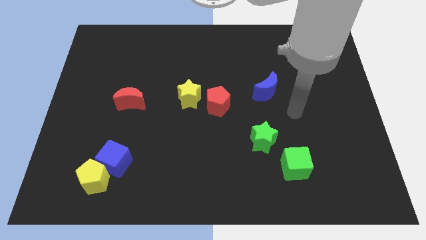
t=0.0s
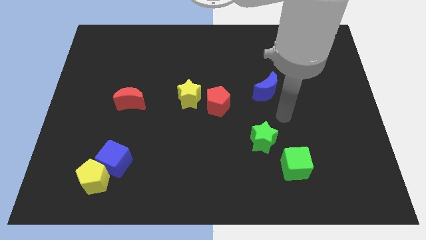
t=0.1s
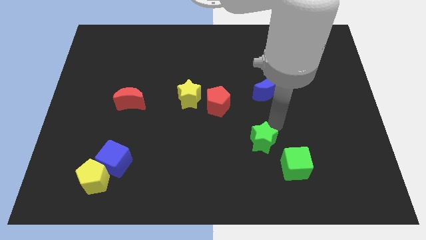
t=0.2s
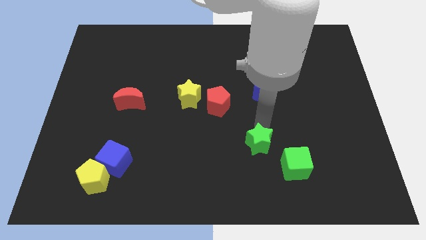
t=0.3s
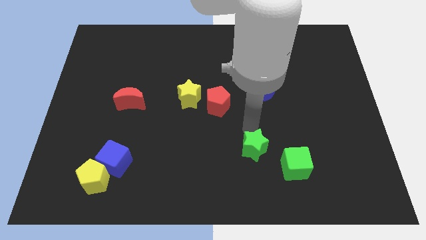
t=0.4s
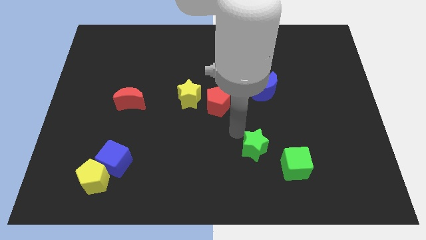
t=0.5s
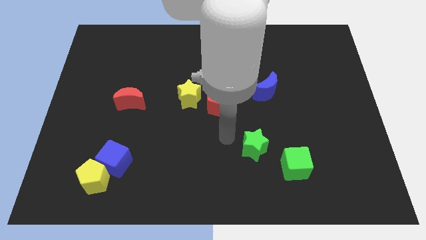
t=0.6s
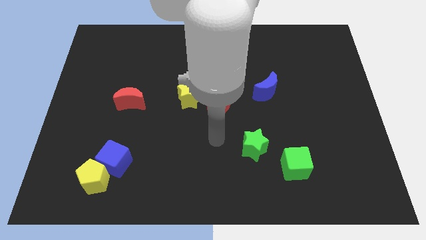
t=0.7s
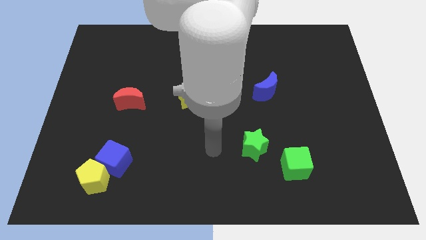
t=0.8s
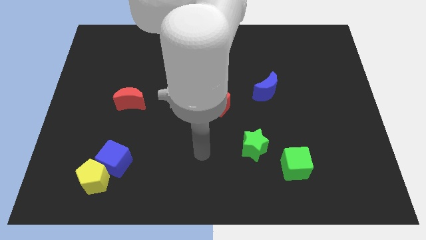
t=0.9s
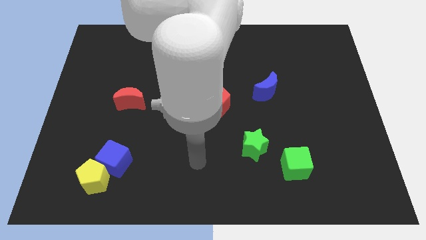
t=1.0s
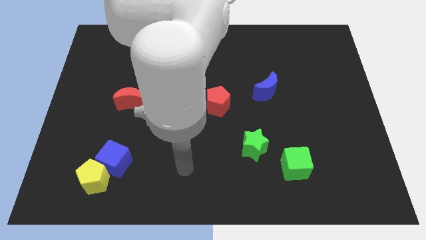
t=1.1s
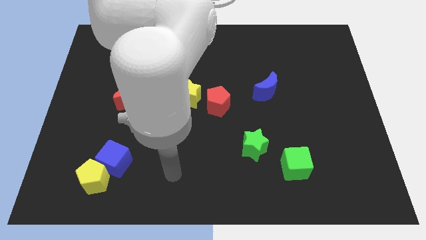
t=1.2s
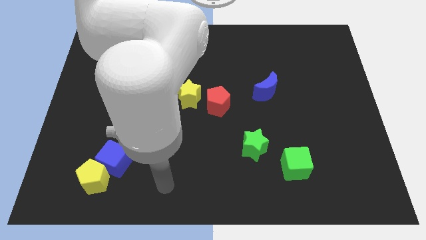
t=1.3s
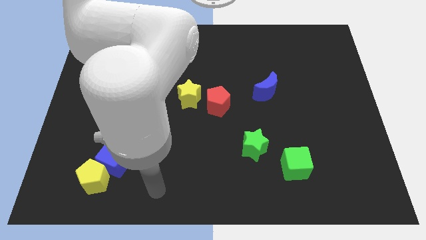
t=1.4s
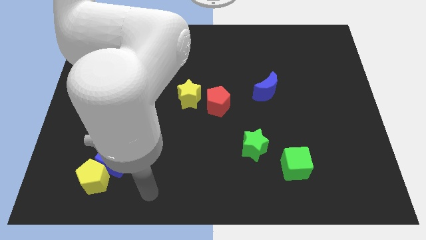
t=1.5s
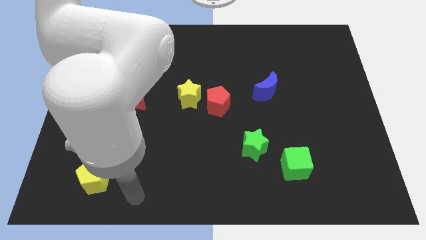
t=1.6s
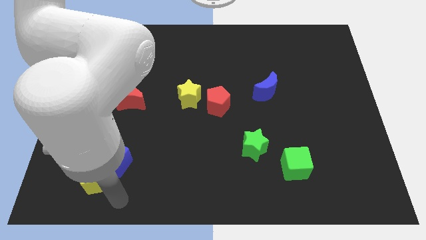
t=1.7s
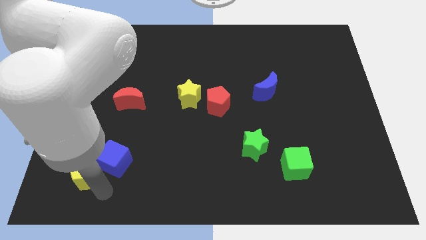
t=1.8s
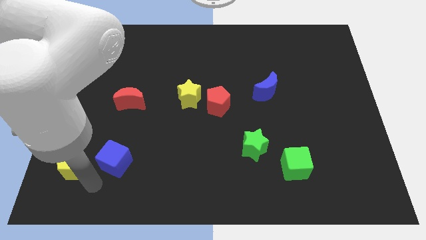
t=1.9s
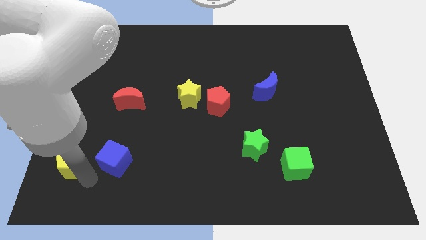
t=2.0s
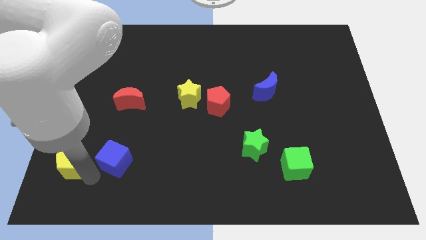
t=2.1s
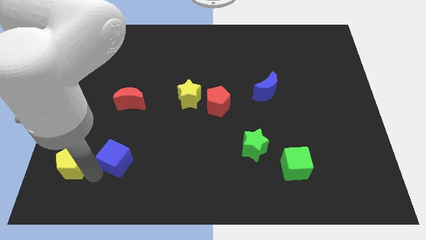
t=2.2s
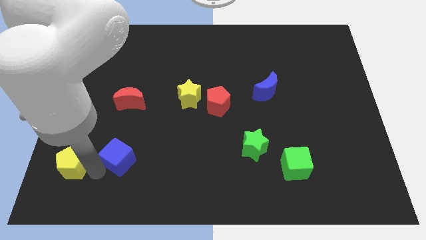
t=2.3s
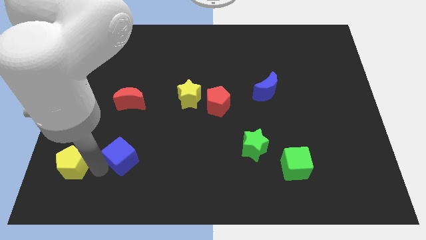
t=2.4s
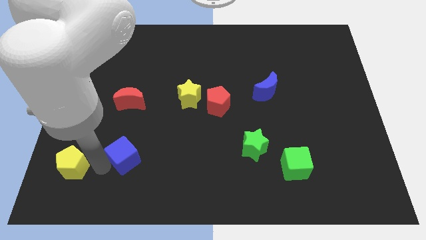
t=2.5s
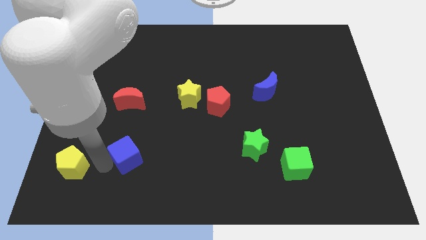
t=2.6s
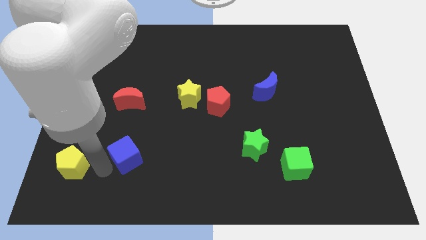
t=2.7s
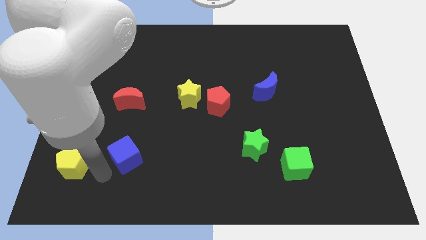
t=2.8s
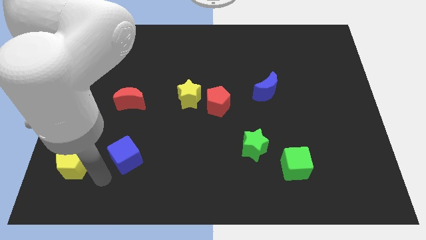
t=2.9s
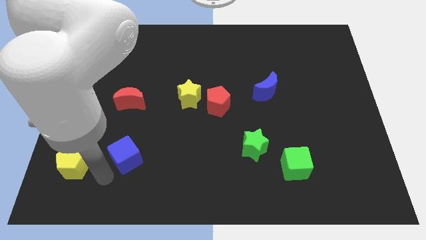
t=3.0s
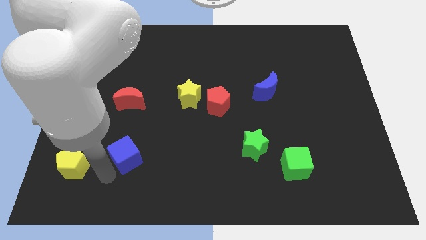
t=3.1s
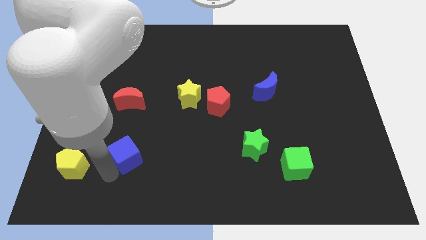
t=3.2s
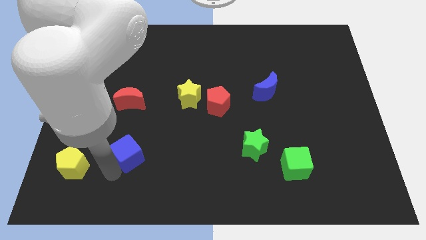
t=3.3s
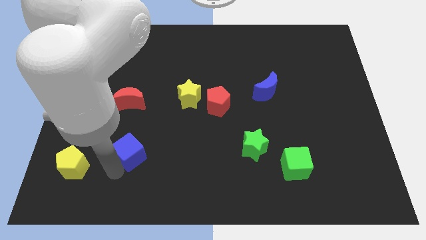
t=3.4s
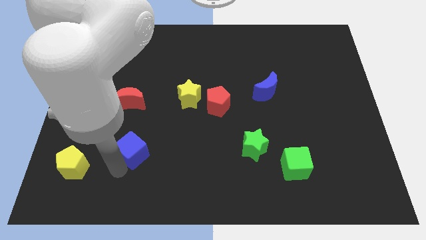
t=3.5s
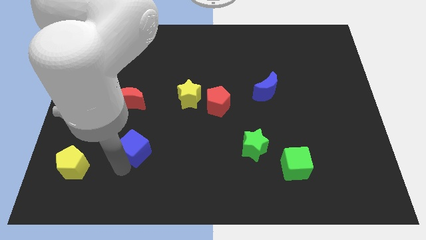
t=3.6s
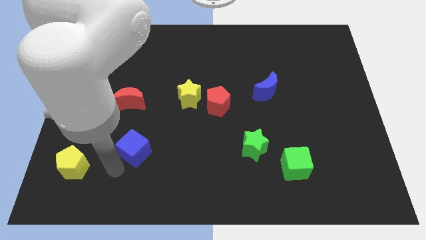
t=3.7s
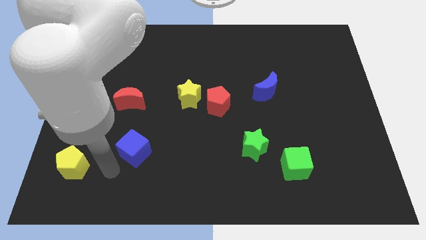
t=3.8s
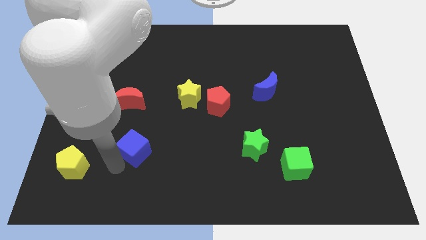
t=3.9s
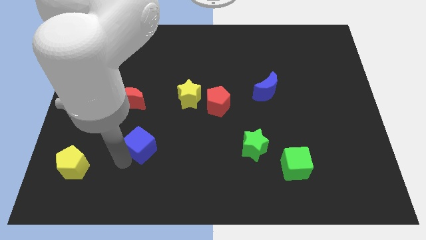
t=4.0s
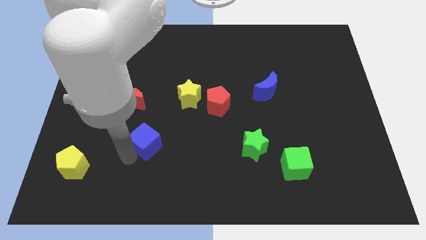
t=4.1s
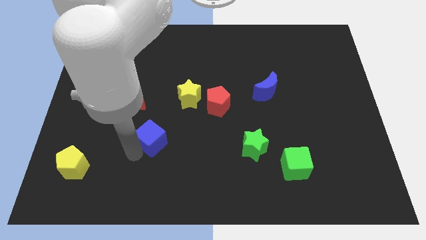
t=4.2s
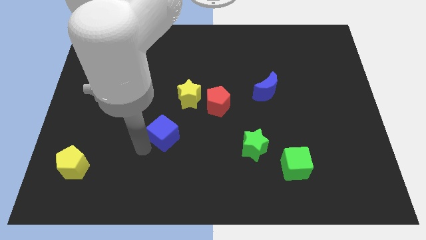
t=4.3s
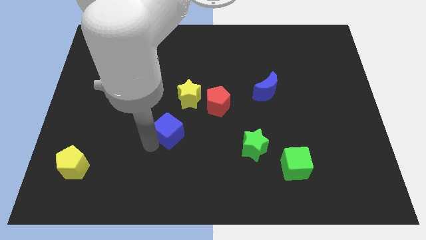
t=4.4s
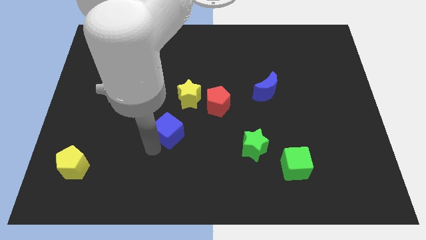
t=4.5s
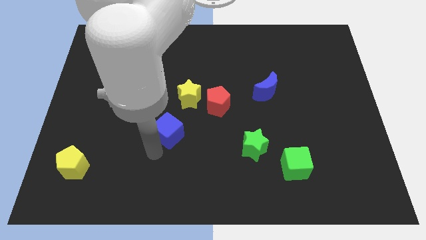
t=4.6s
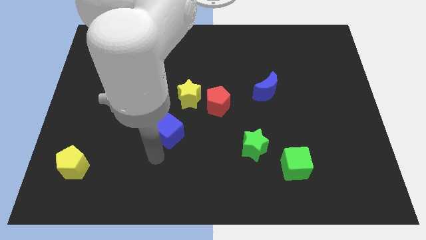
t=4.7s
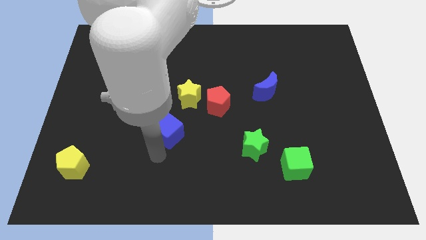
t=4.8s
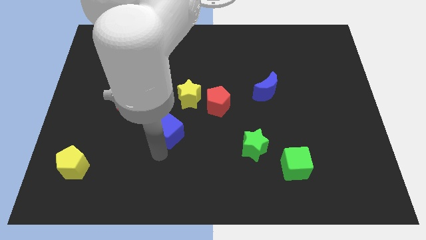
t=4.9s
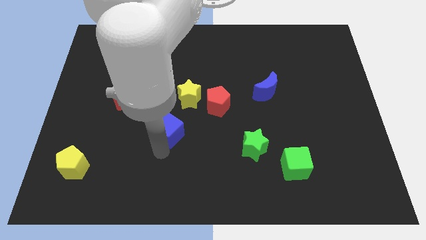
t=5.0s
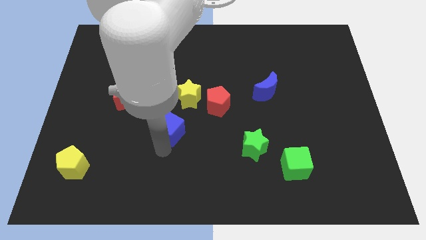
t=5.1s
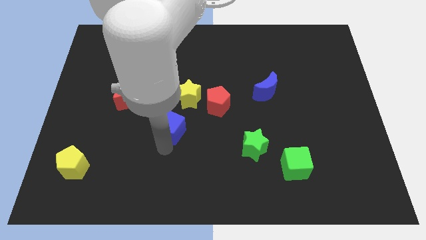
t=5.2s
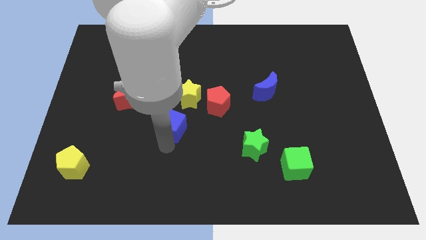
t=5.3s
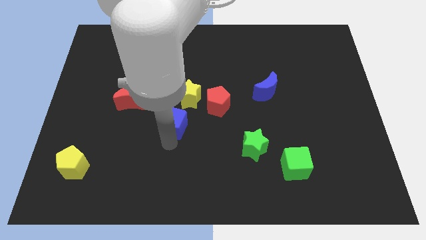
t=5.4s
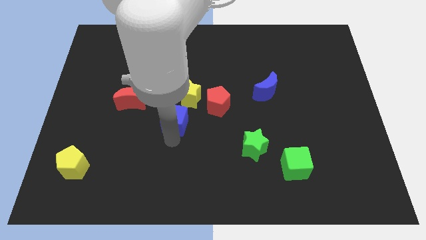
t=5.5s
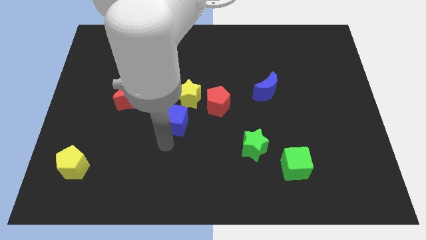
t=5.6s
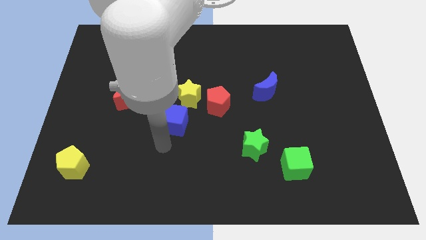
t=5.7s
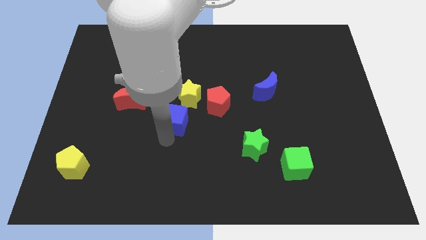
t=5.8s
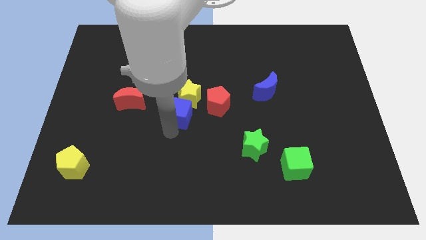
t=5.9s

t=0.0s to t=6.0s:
move the blue cube to the yellow star
